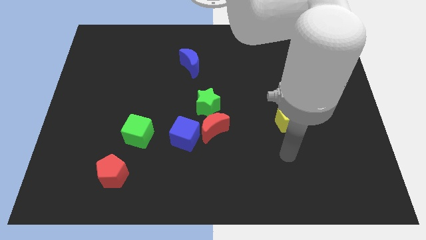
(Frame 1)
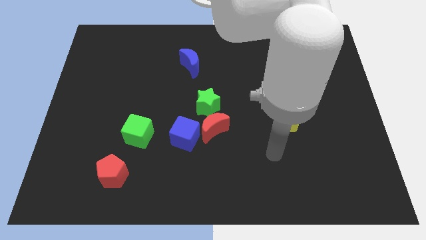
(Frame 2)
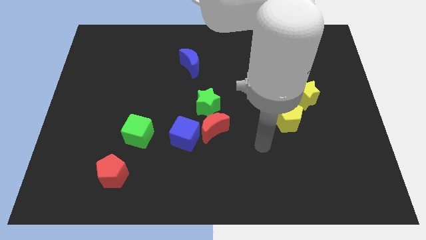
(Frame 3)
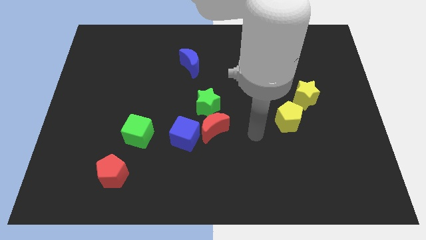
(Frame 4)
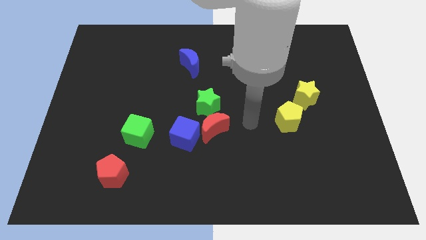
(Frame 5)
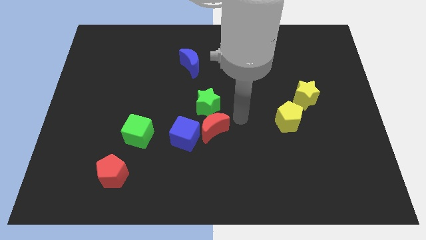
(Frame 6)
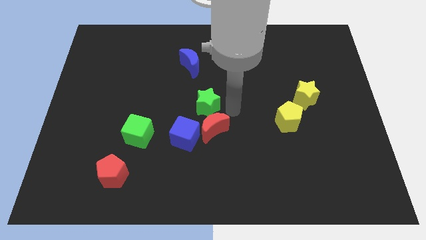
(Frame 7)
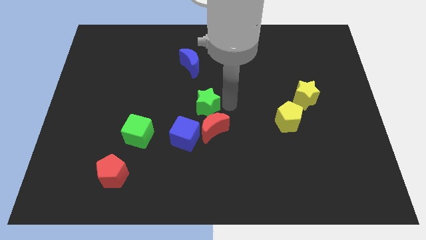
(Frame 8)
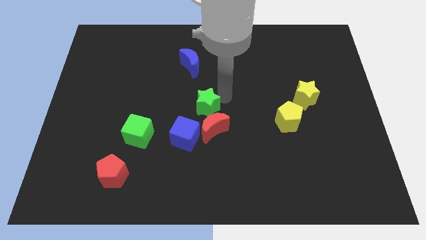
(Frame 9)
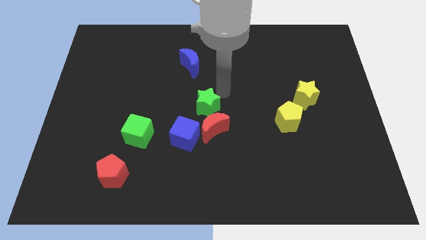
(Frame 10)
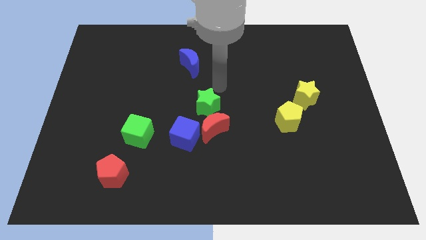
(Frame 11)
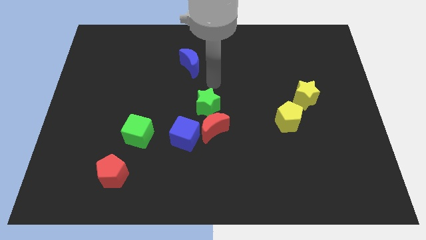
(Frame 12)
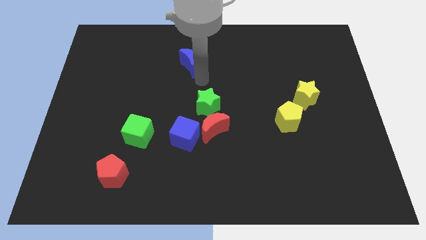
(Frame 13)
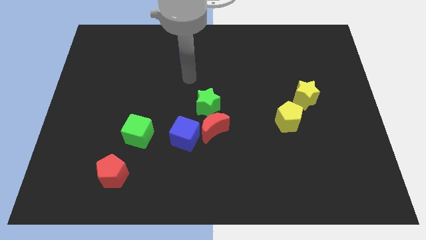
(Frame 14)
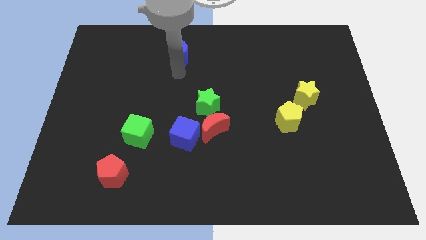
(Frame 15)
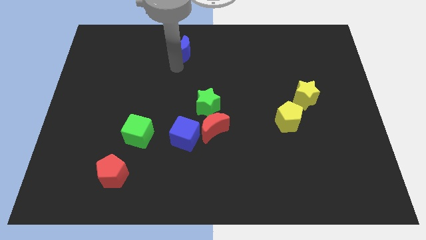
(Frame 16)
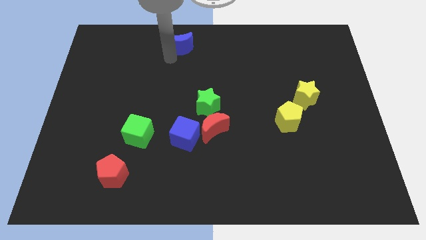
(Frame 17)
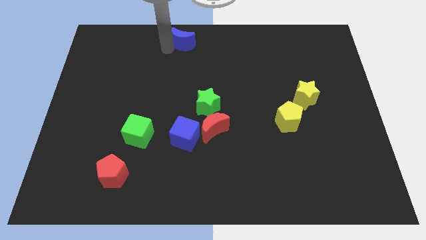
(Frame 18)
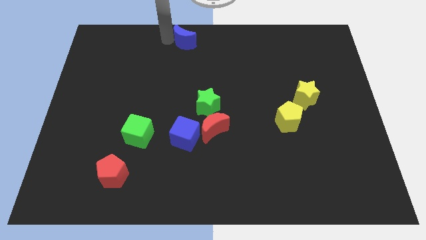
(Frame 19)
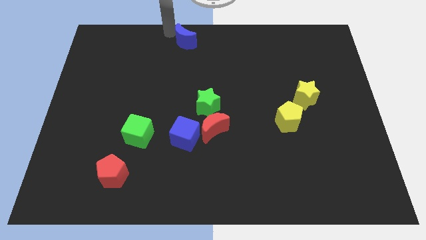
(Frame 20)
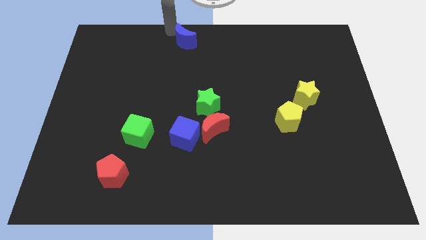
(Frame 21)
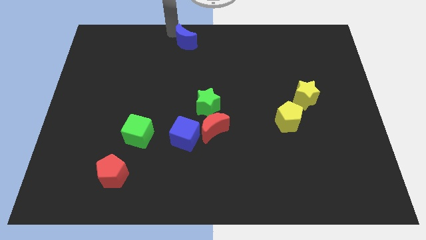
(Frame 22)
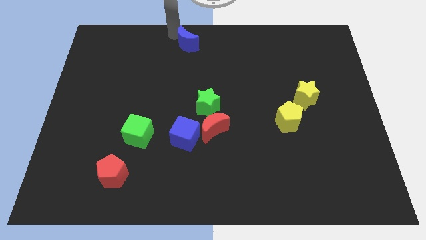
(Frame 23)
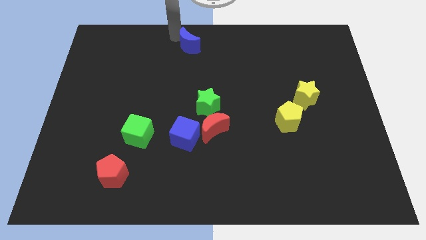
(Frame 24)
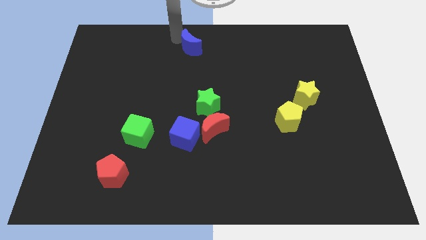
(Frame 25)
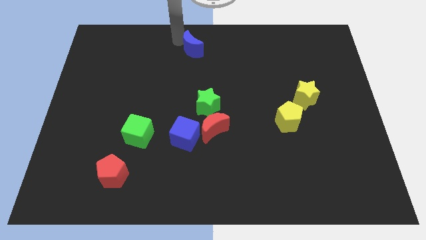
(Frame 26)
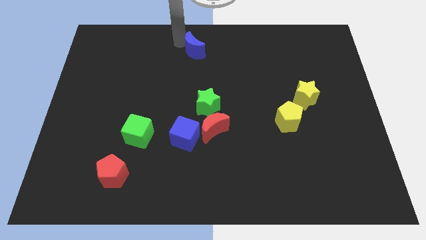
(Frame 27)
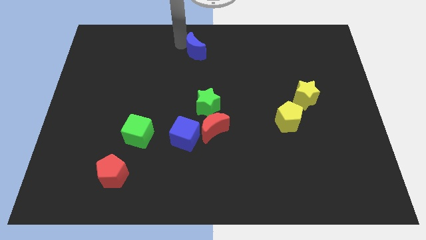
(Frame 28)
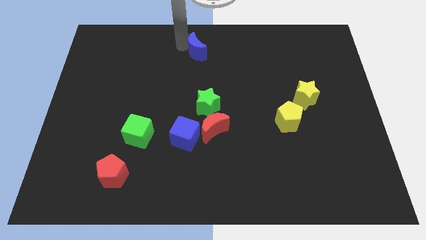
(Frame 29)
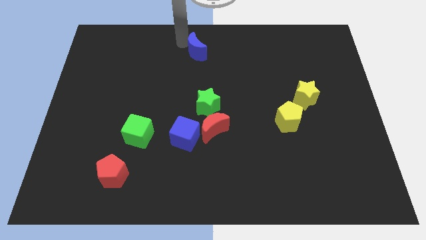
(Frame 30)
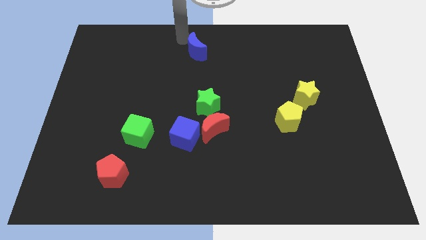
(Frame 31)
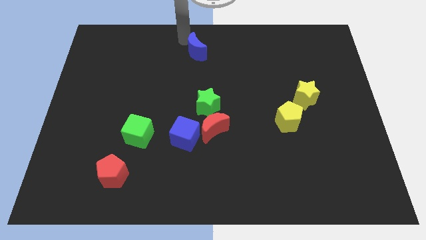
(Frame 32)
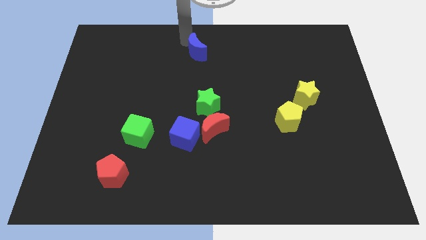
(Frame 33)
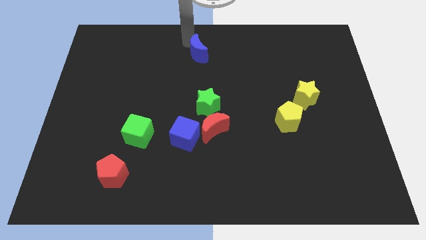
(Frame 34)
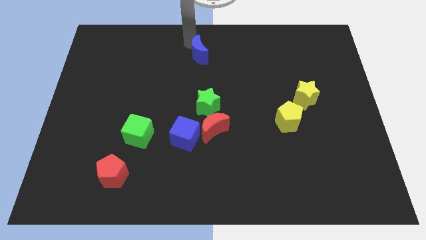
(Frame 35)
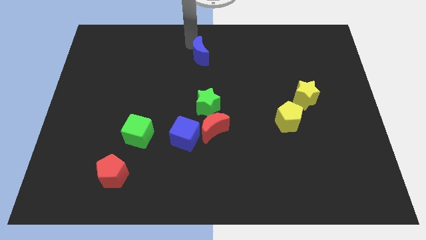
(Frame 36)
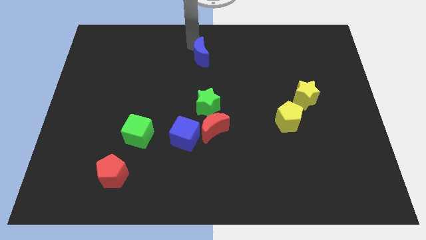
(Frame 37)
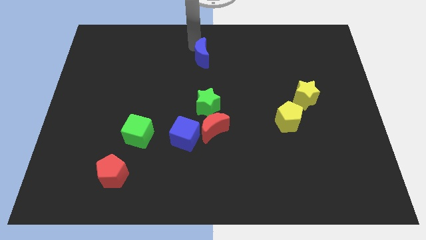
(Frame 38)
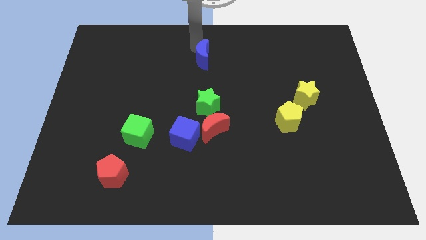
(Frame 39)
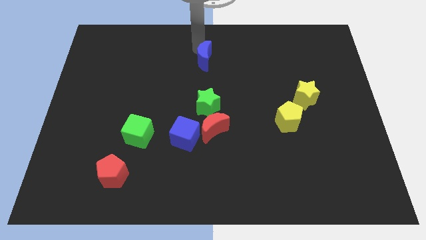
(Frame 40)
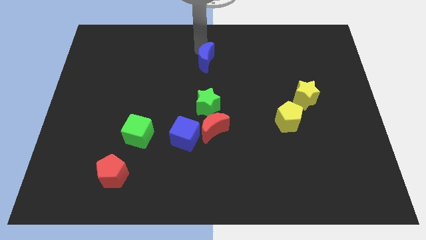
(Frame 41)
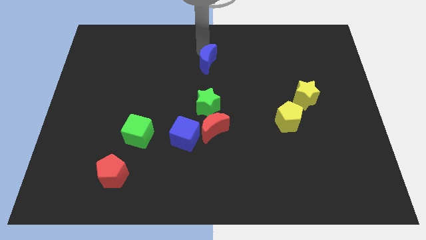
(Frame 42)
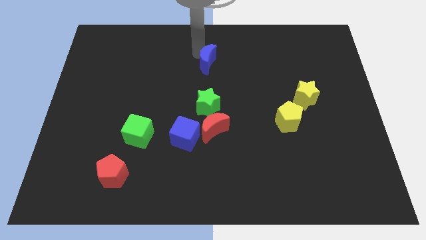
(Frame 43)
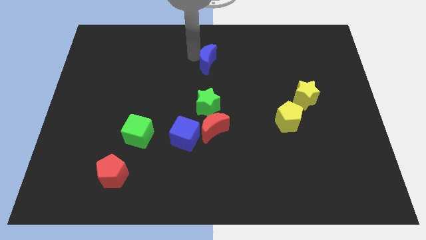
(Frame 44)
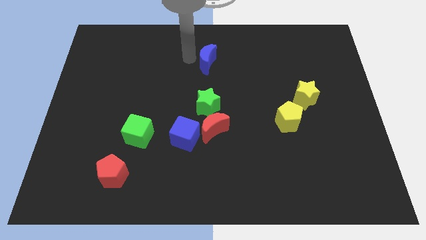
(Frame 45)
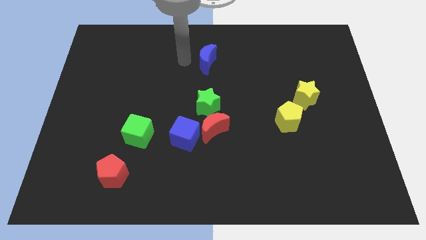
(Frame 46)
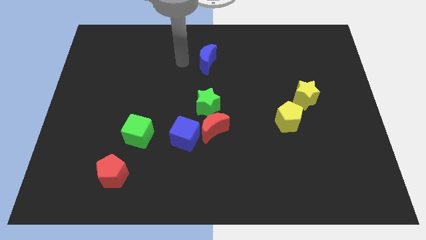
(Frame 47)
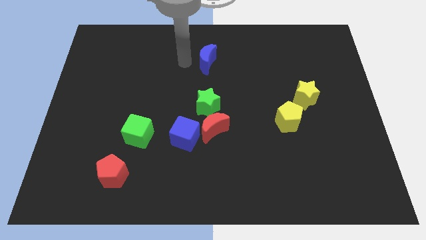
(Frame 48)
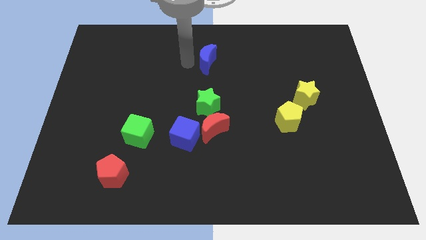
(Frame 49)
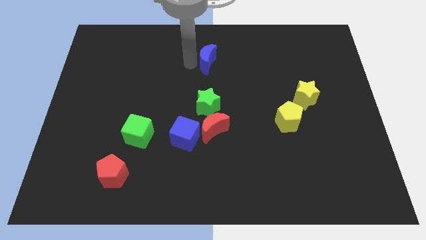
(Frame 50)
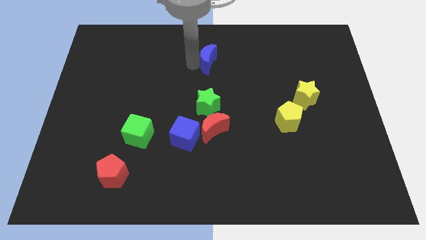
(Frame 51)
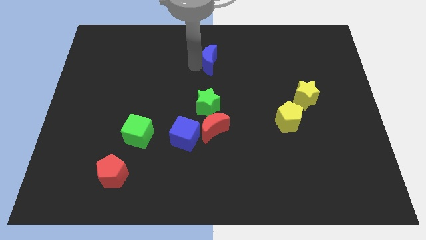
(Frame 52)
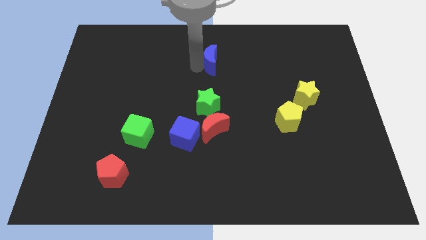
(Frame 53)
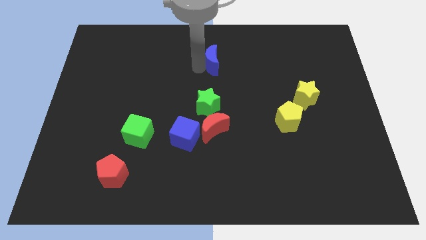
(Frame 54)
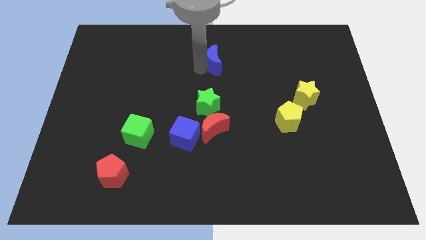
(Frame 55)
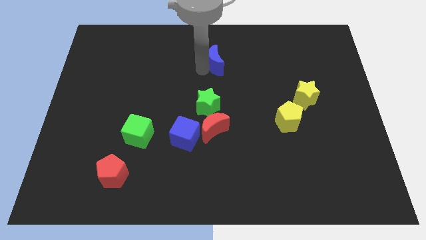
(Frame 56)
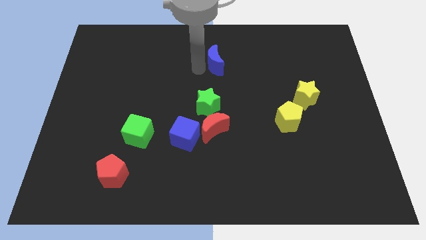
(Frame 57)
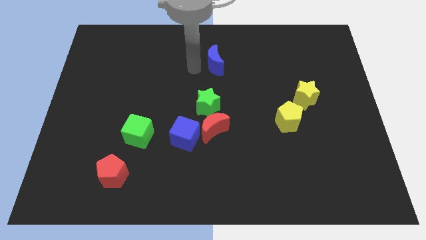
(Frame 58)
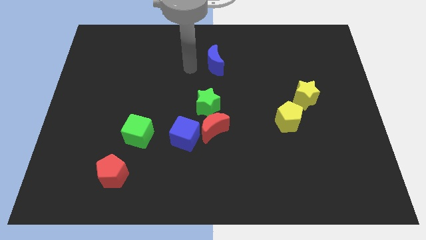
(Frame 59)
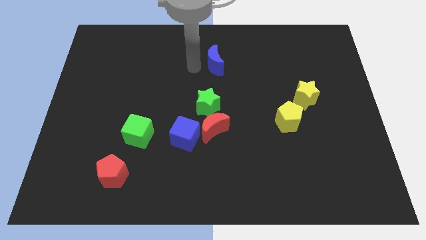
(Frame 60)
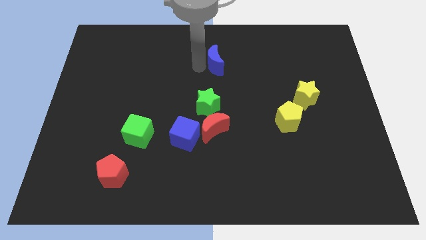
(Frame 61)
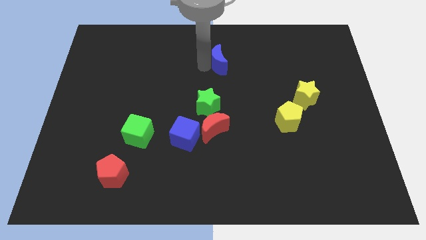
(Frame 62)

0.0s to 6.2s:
slide the blue moon a little bit to the right

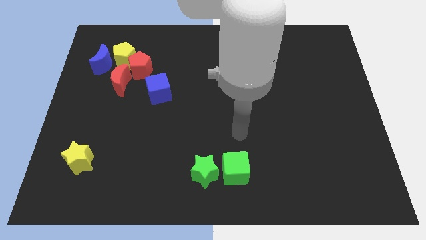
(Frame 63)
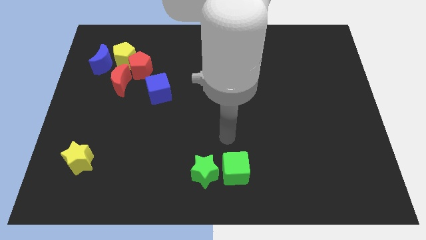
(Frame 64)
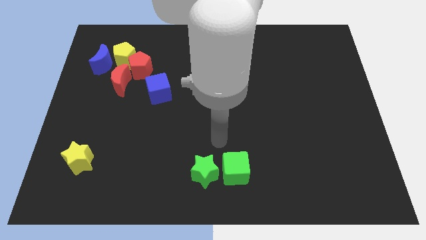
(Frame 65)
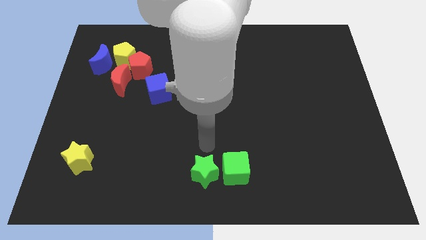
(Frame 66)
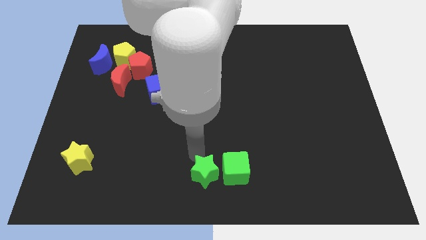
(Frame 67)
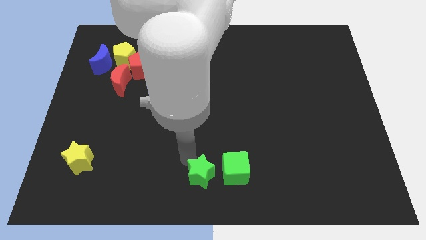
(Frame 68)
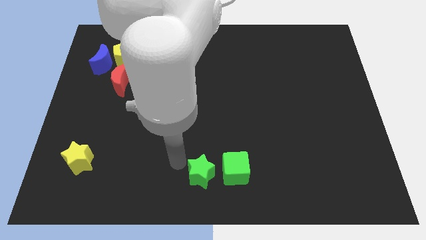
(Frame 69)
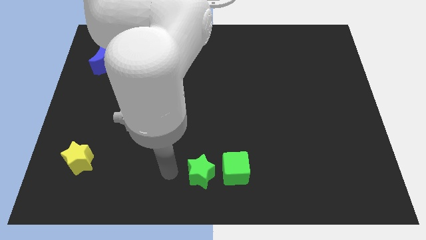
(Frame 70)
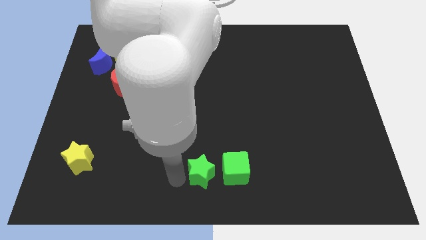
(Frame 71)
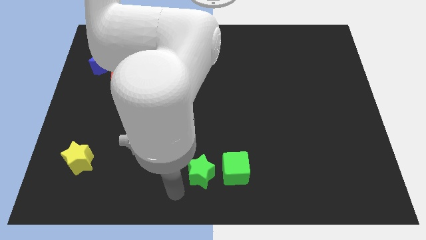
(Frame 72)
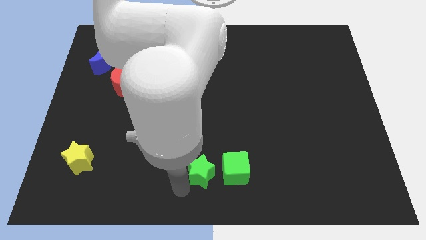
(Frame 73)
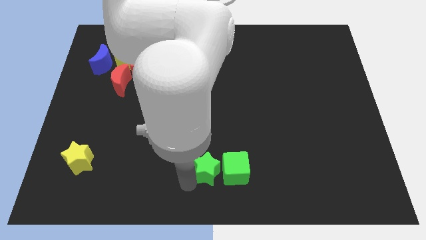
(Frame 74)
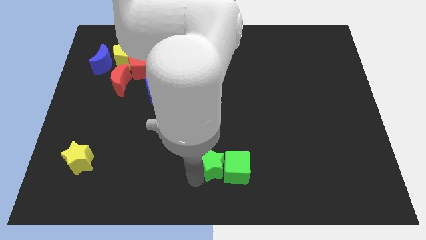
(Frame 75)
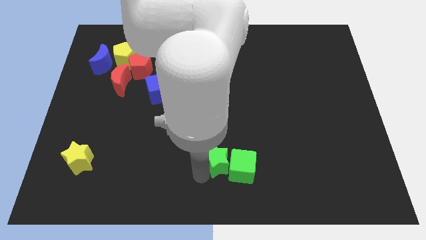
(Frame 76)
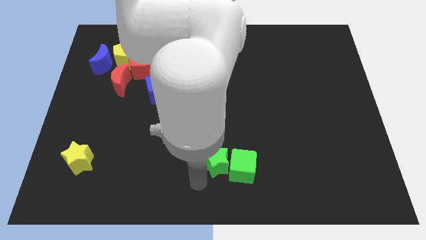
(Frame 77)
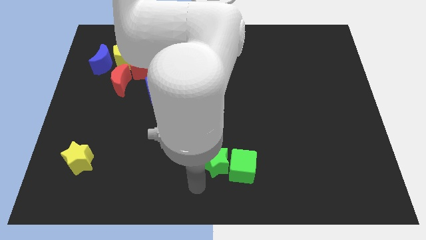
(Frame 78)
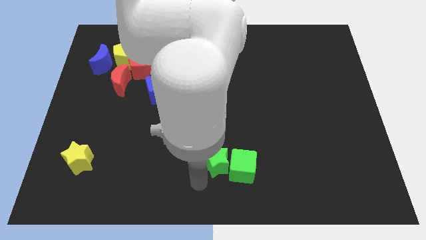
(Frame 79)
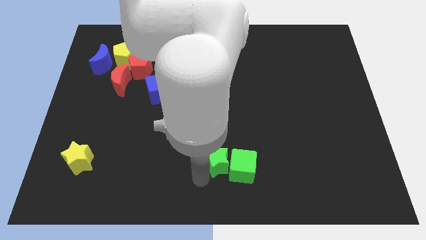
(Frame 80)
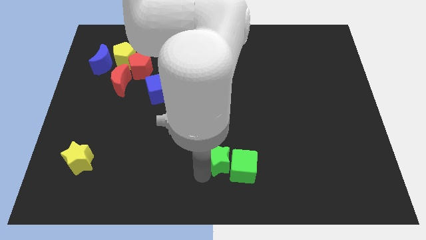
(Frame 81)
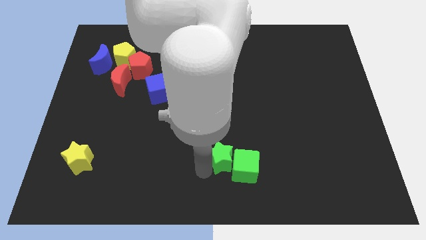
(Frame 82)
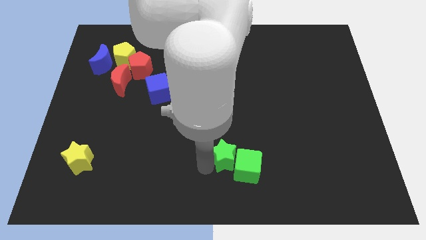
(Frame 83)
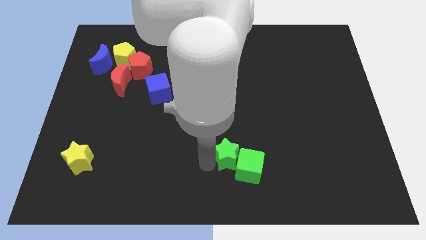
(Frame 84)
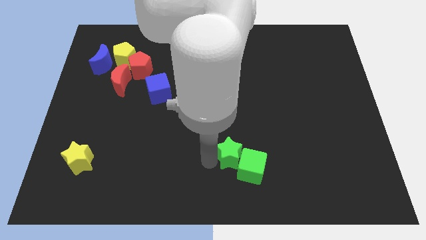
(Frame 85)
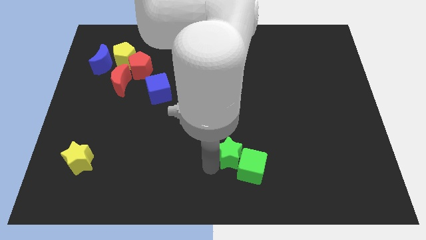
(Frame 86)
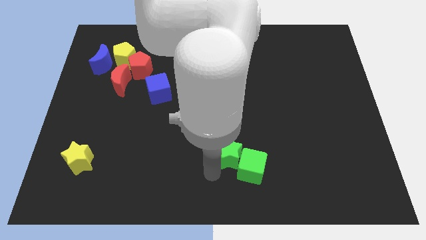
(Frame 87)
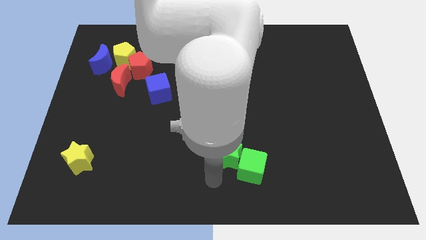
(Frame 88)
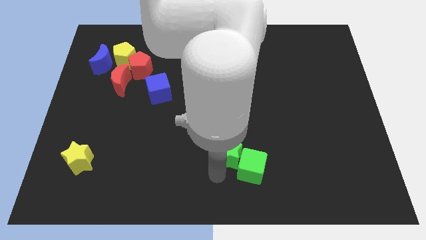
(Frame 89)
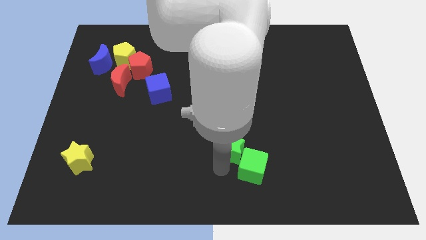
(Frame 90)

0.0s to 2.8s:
slide the green star a bit upwards and to the right
